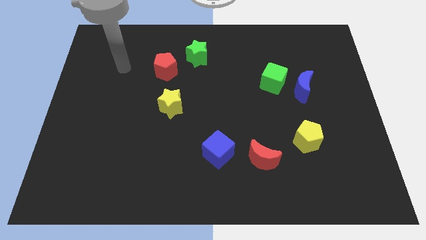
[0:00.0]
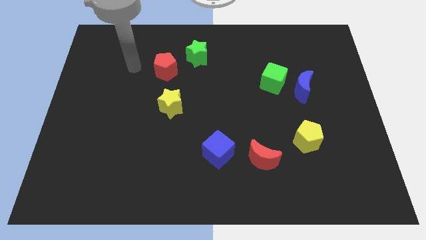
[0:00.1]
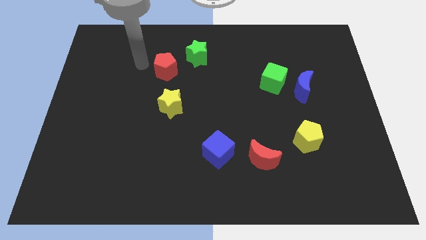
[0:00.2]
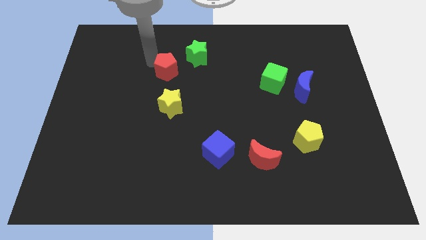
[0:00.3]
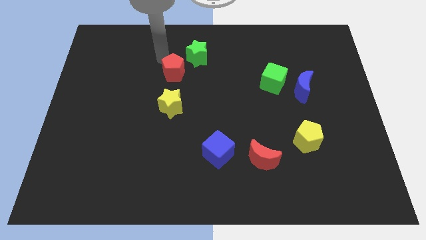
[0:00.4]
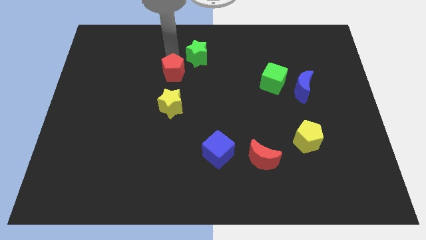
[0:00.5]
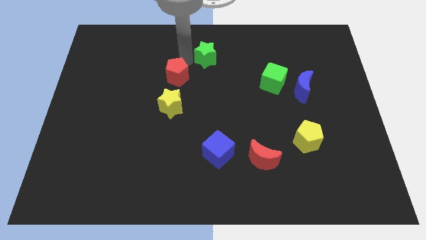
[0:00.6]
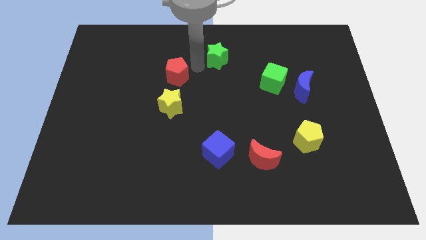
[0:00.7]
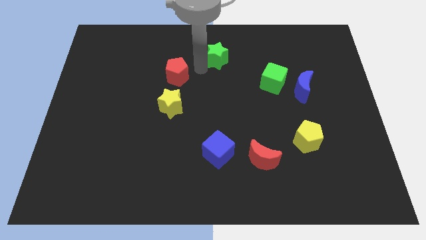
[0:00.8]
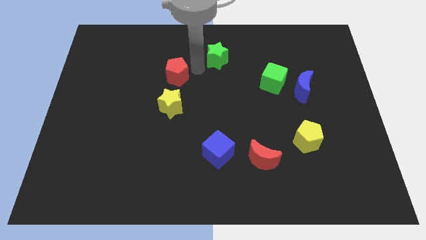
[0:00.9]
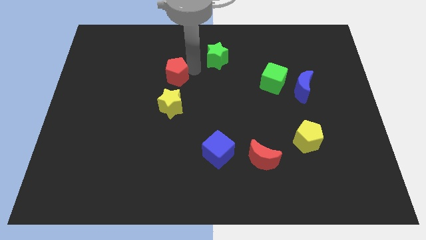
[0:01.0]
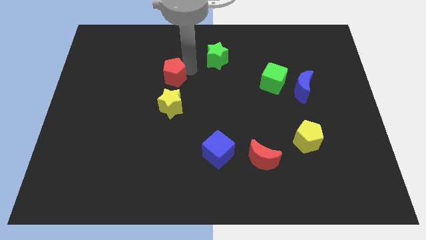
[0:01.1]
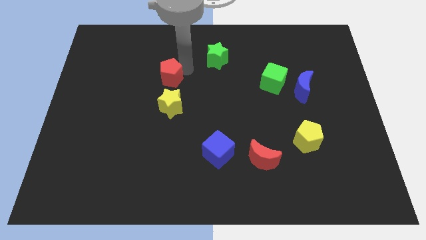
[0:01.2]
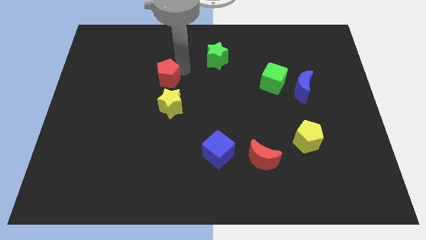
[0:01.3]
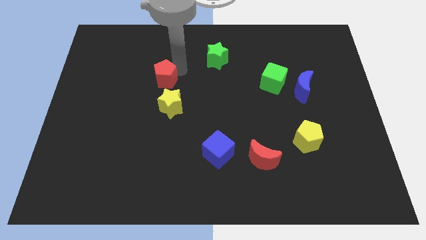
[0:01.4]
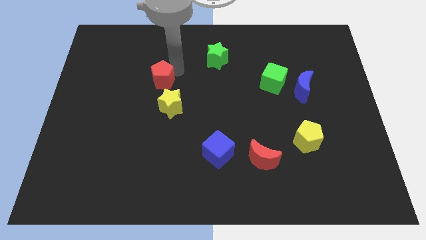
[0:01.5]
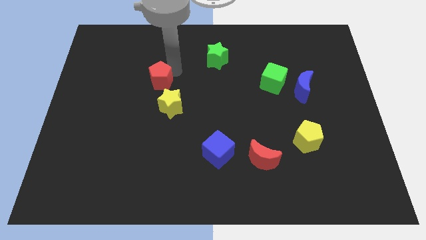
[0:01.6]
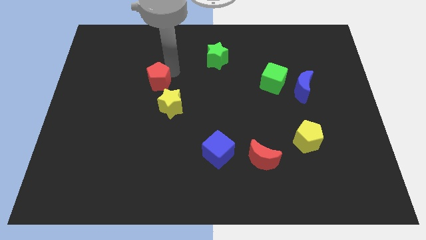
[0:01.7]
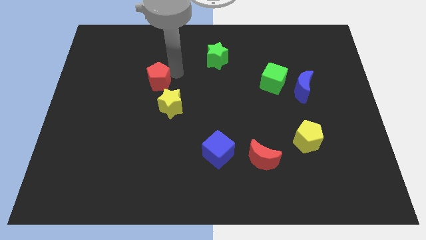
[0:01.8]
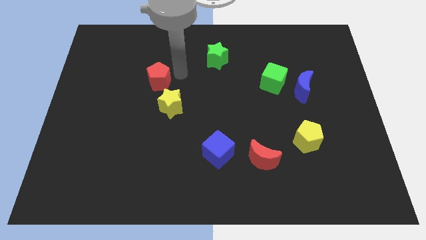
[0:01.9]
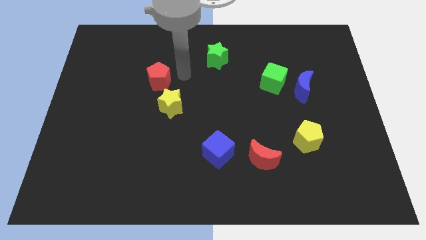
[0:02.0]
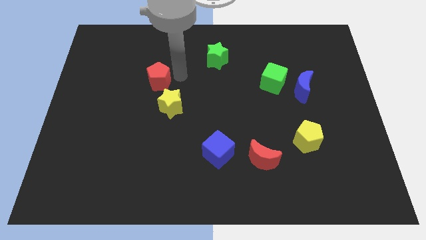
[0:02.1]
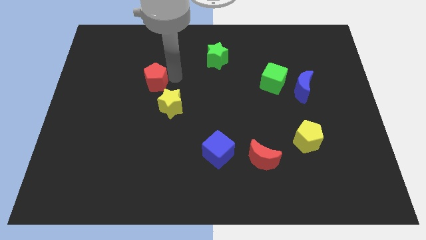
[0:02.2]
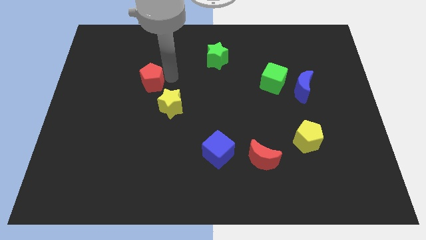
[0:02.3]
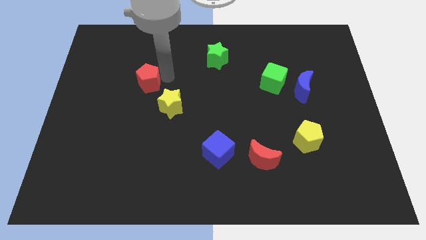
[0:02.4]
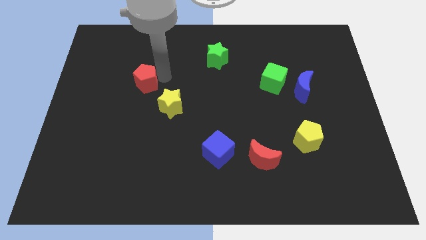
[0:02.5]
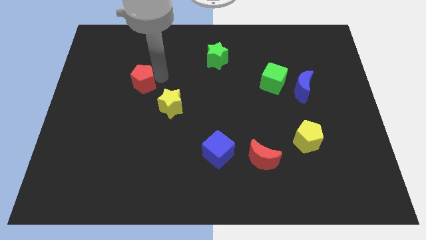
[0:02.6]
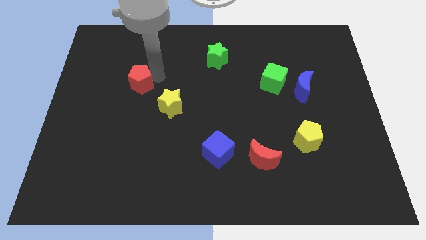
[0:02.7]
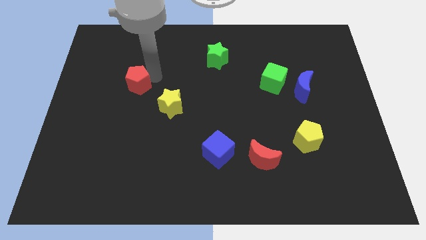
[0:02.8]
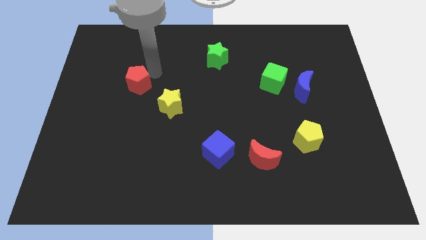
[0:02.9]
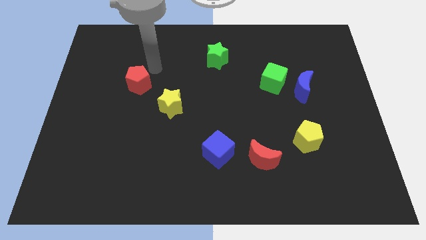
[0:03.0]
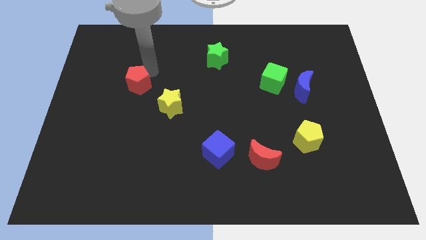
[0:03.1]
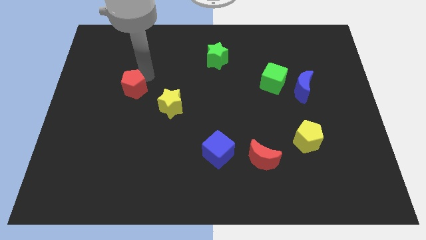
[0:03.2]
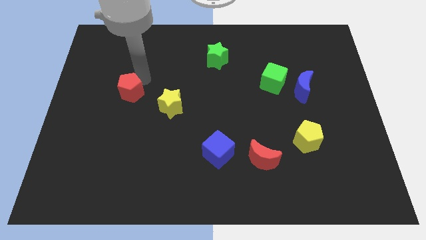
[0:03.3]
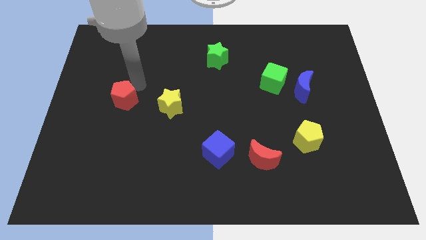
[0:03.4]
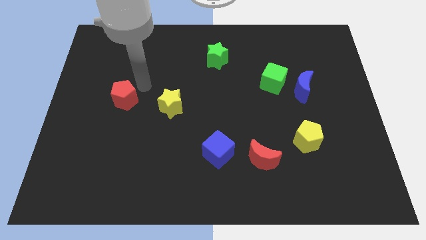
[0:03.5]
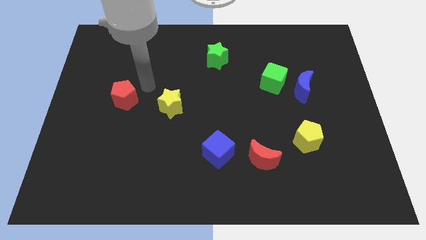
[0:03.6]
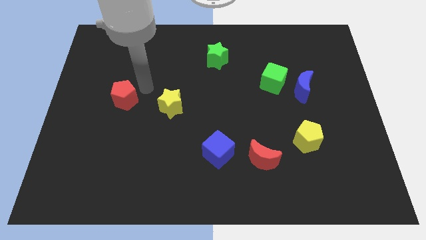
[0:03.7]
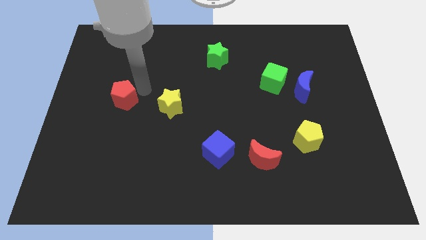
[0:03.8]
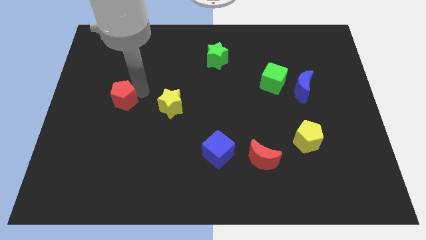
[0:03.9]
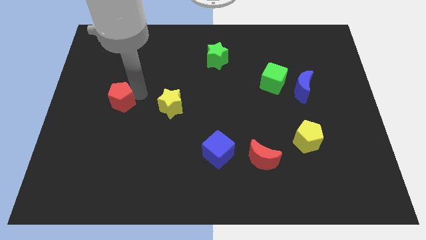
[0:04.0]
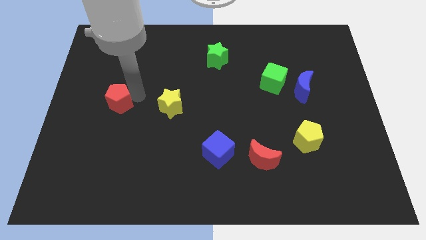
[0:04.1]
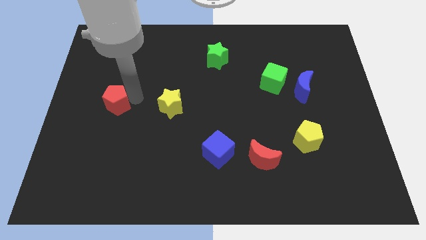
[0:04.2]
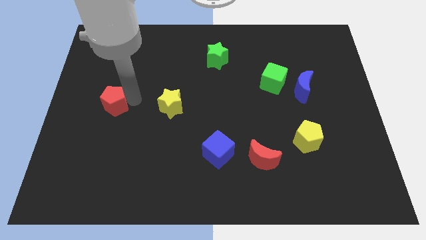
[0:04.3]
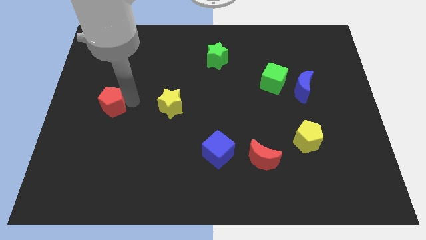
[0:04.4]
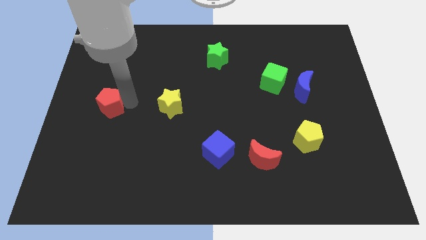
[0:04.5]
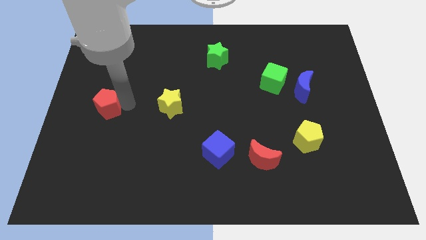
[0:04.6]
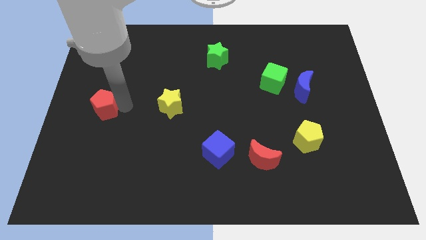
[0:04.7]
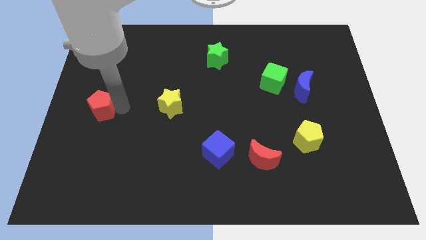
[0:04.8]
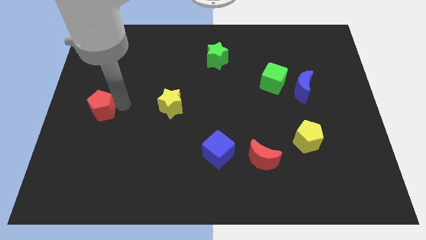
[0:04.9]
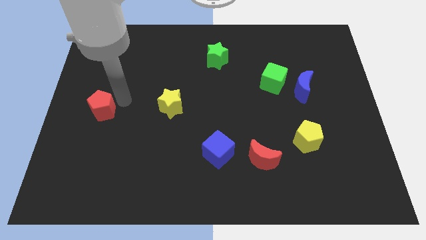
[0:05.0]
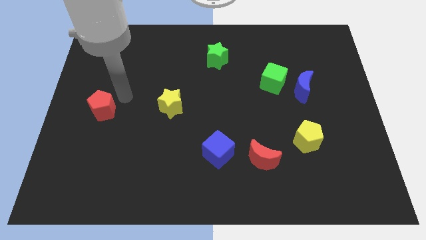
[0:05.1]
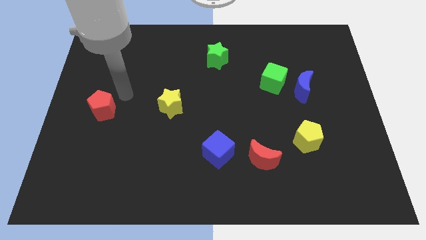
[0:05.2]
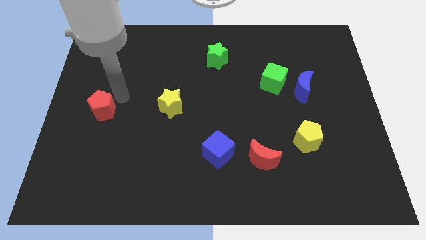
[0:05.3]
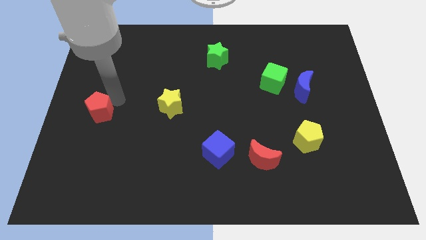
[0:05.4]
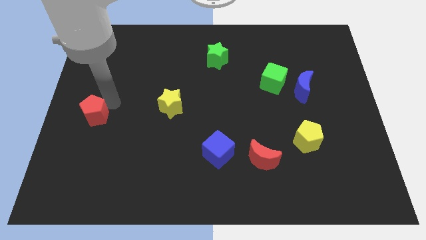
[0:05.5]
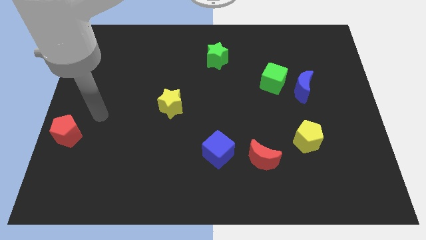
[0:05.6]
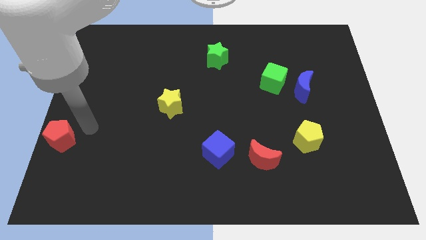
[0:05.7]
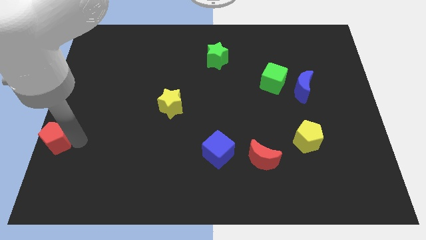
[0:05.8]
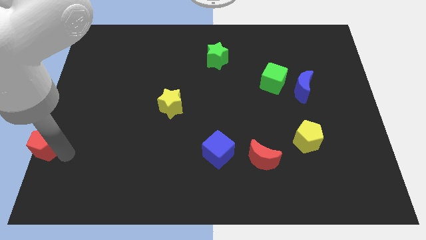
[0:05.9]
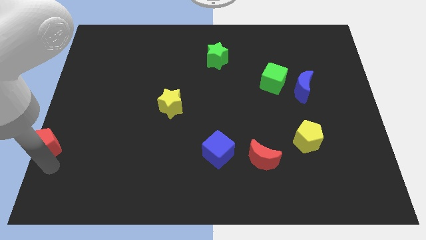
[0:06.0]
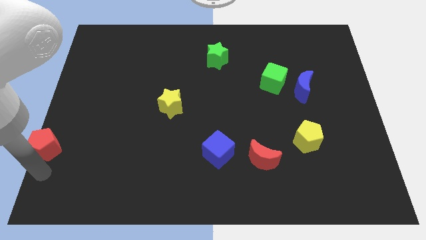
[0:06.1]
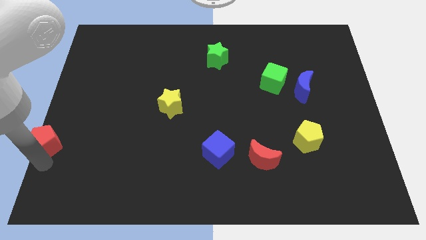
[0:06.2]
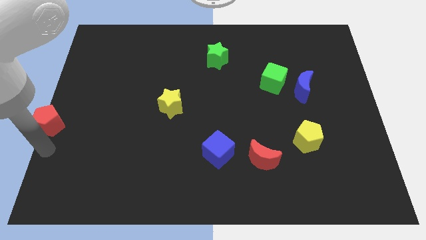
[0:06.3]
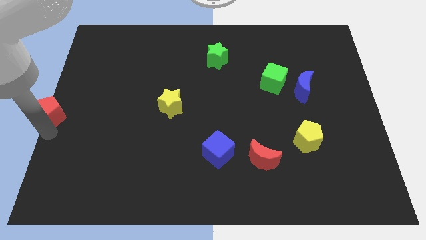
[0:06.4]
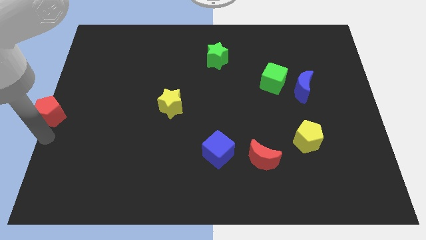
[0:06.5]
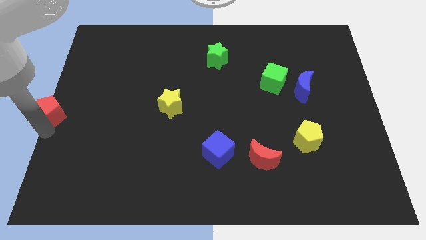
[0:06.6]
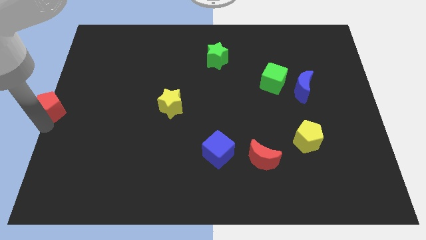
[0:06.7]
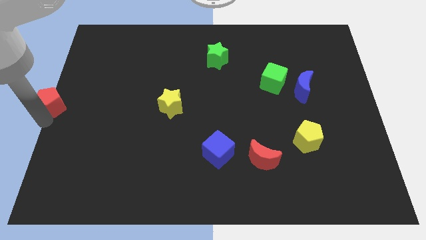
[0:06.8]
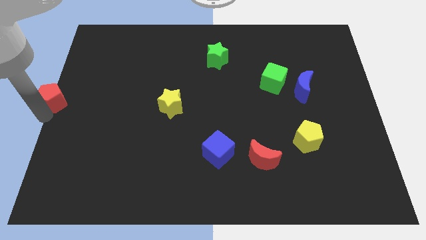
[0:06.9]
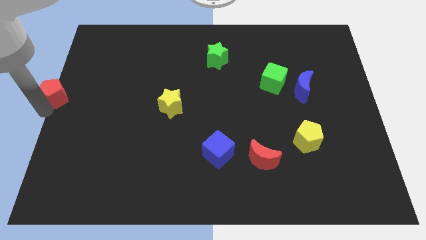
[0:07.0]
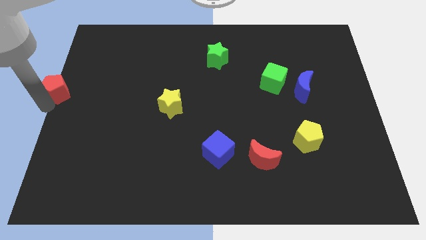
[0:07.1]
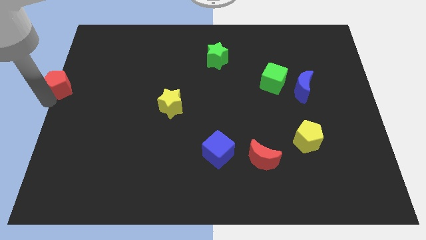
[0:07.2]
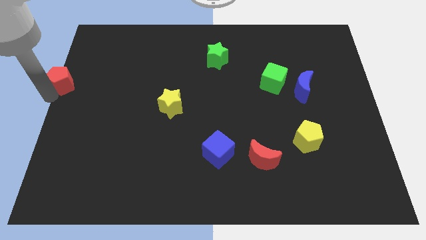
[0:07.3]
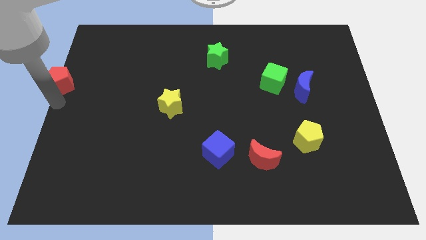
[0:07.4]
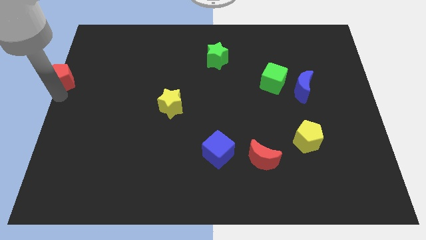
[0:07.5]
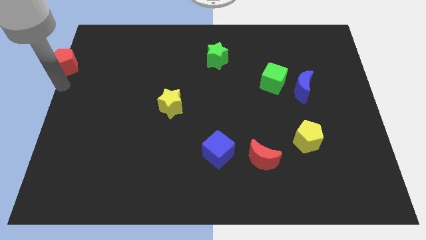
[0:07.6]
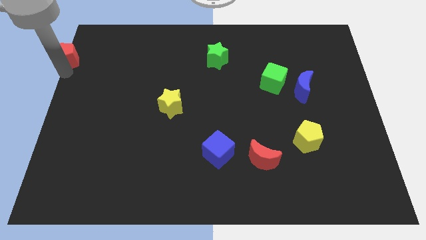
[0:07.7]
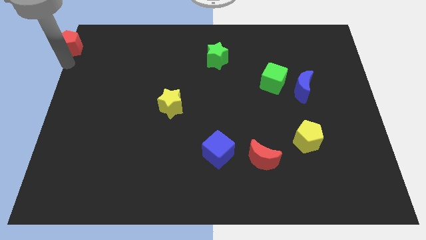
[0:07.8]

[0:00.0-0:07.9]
slide the red pentagon to the top left corner
